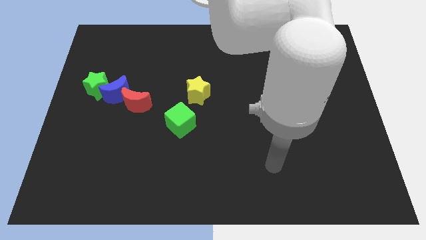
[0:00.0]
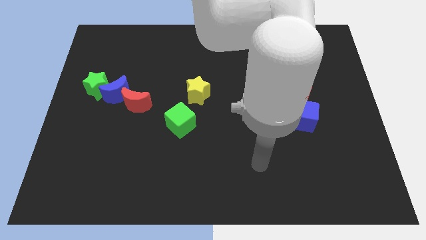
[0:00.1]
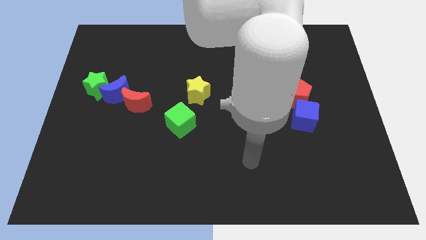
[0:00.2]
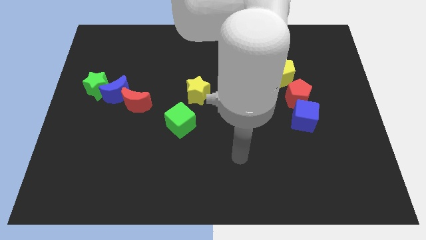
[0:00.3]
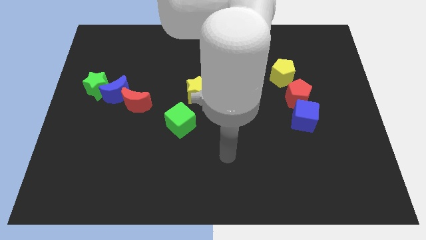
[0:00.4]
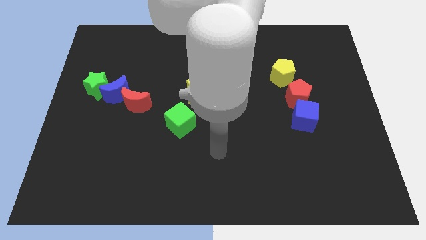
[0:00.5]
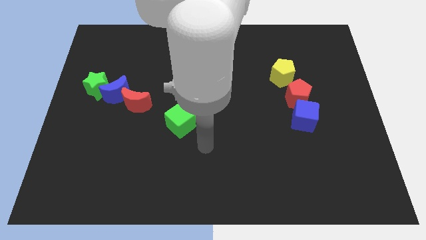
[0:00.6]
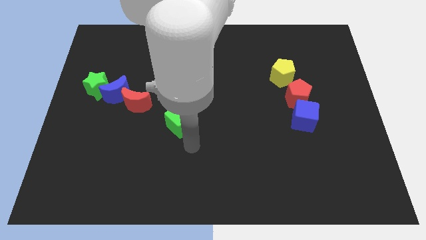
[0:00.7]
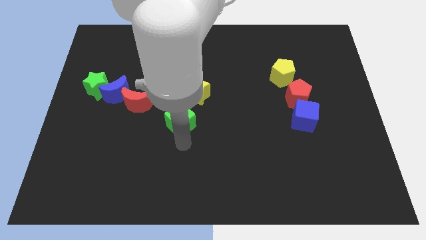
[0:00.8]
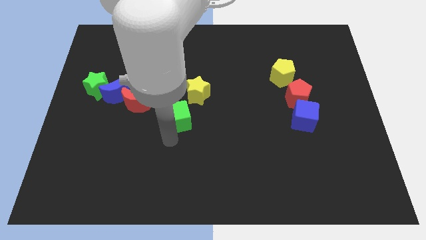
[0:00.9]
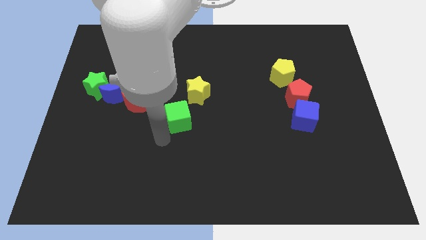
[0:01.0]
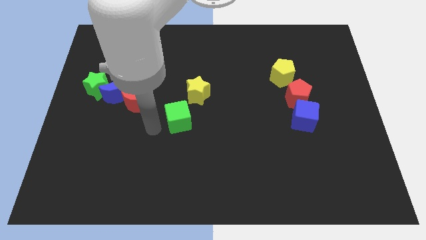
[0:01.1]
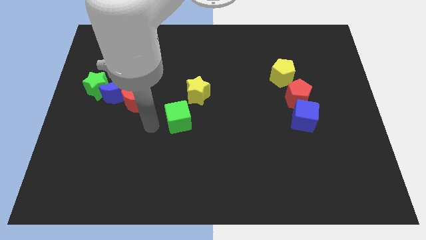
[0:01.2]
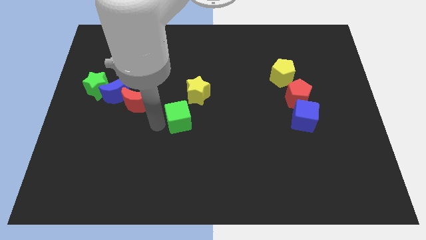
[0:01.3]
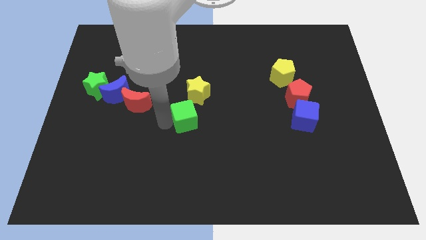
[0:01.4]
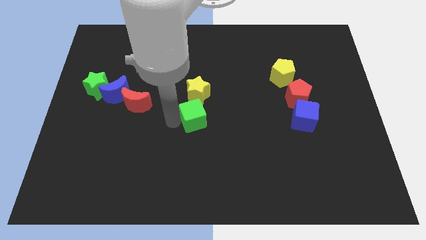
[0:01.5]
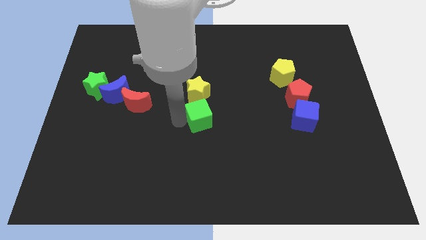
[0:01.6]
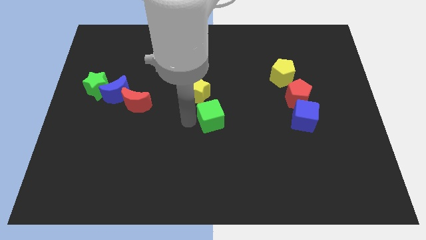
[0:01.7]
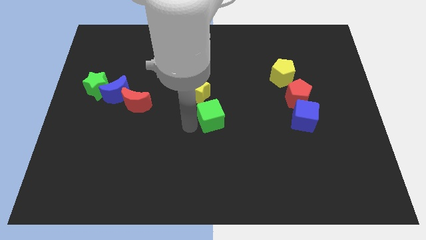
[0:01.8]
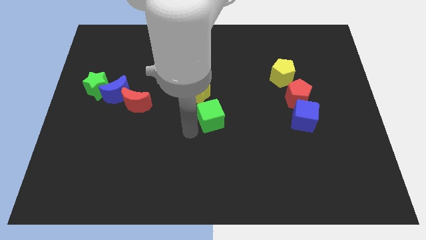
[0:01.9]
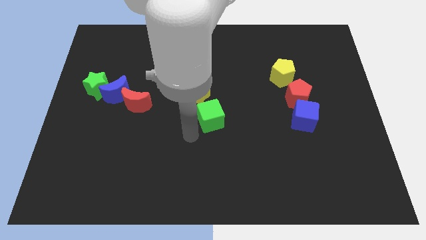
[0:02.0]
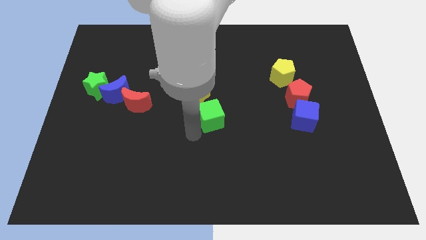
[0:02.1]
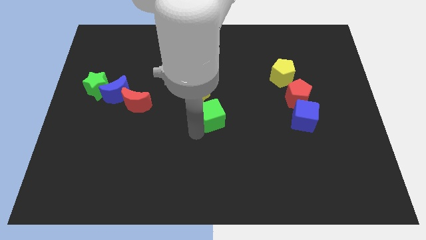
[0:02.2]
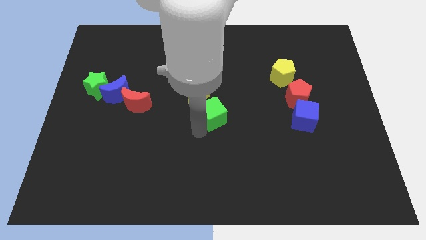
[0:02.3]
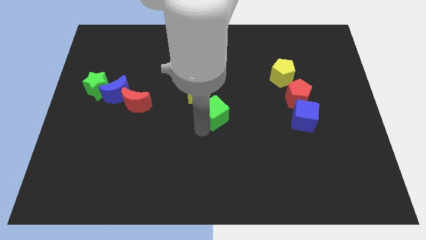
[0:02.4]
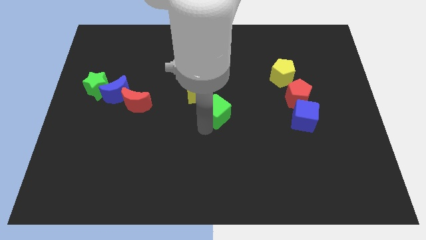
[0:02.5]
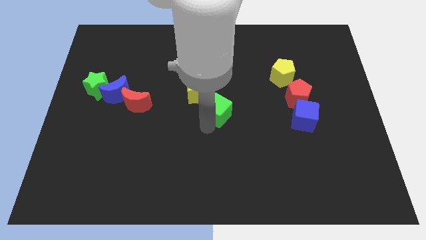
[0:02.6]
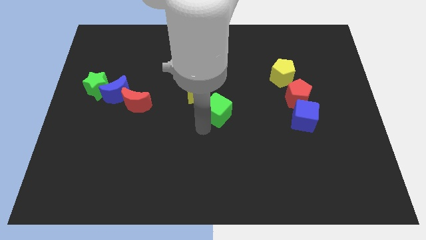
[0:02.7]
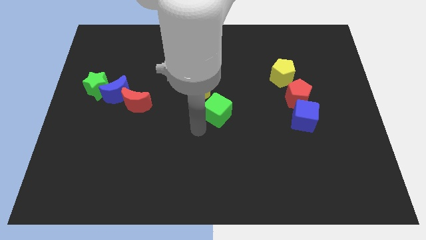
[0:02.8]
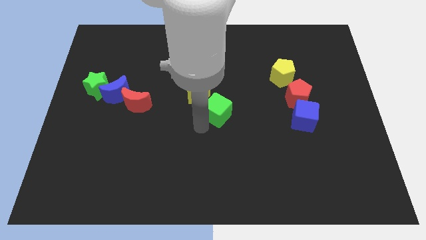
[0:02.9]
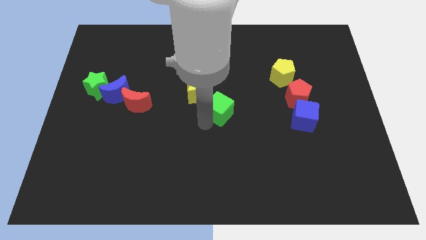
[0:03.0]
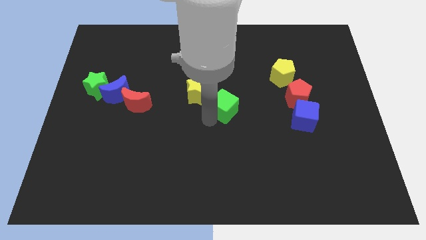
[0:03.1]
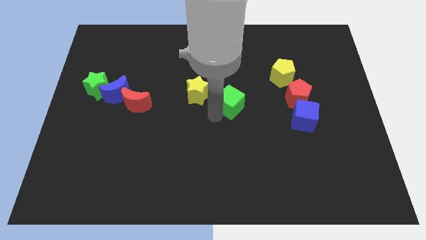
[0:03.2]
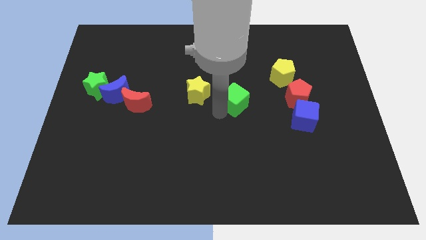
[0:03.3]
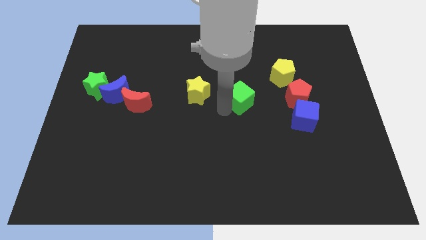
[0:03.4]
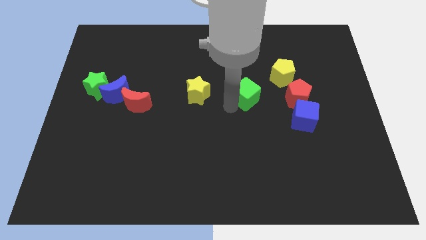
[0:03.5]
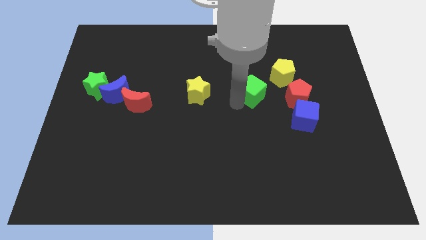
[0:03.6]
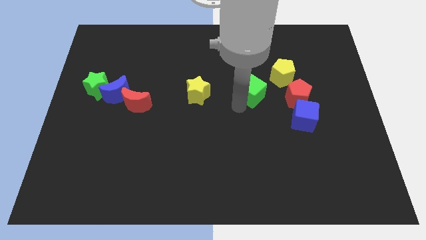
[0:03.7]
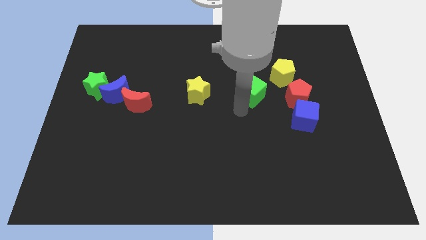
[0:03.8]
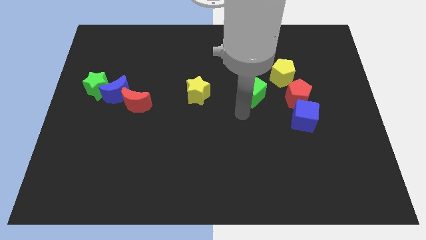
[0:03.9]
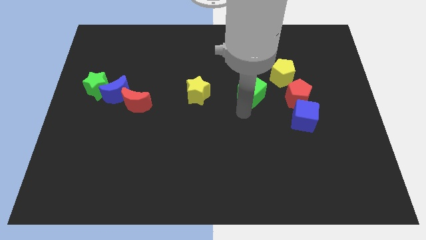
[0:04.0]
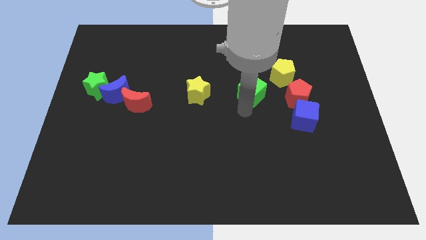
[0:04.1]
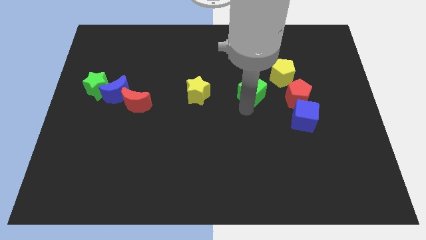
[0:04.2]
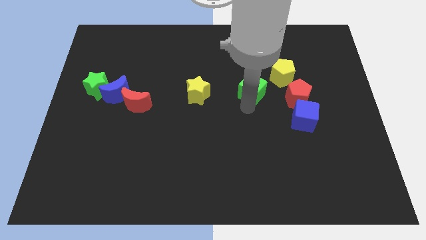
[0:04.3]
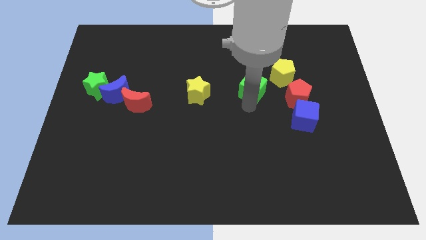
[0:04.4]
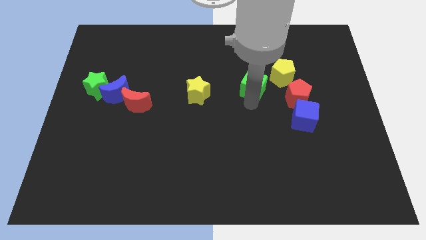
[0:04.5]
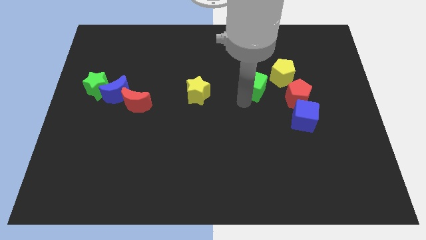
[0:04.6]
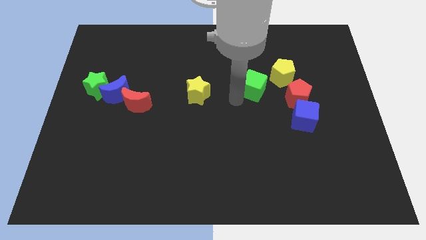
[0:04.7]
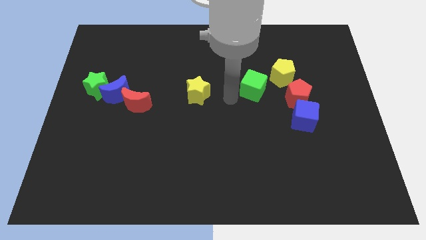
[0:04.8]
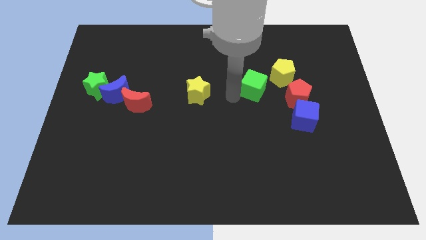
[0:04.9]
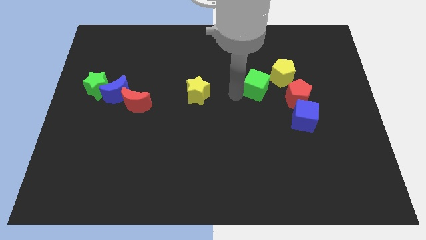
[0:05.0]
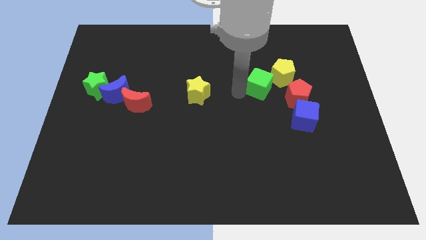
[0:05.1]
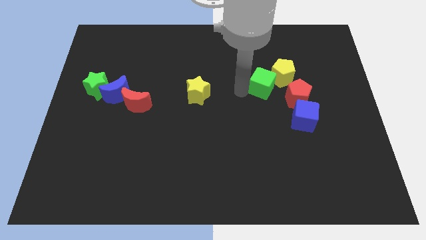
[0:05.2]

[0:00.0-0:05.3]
put the green cube towards the yellow pentagon

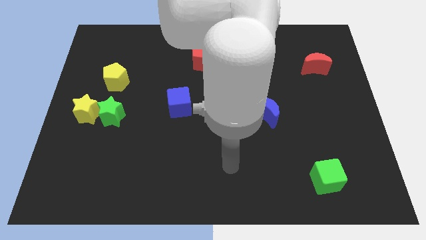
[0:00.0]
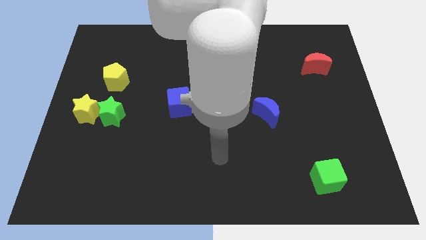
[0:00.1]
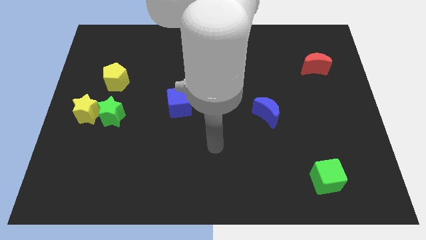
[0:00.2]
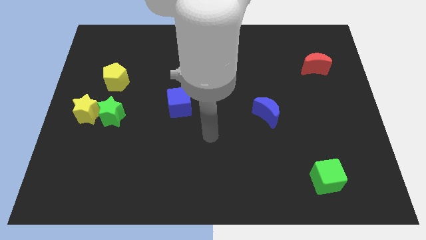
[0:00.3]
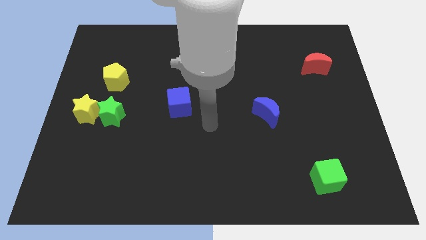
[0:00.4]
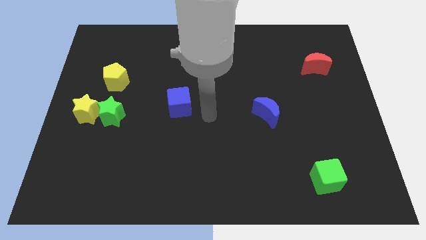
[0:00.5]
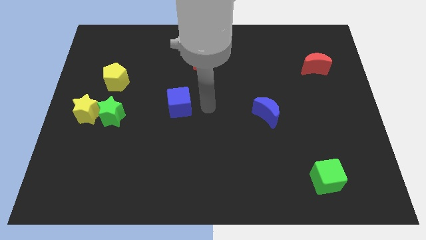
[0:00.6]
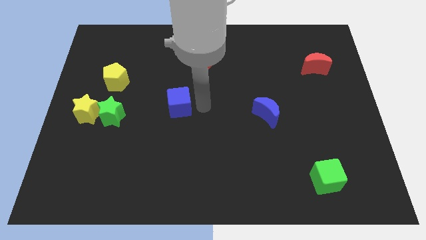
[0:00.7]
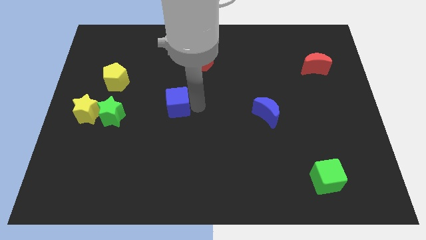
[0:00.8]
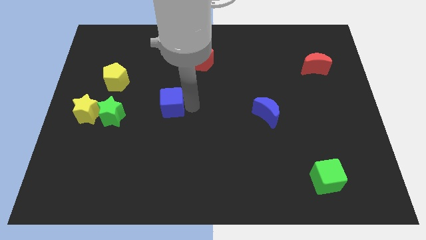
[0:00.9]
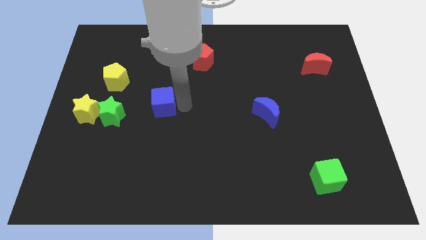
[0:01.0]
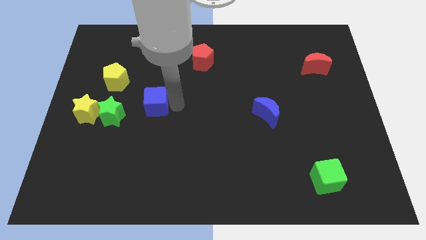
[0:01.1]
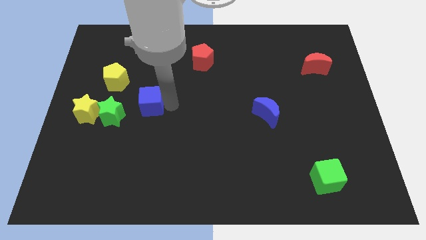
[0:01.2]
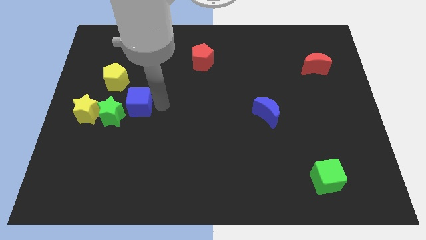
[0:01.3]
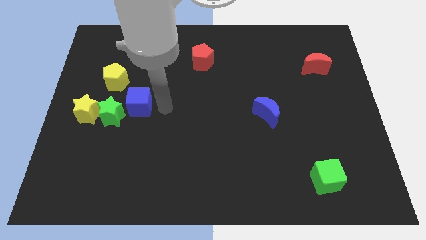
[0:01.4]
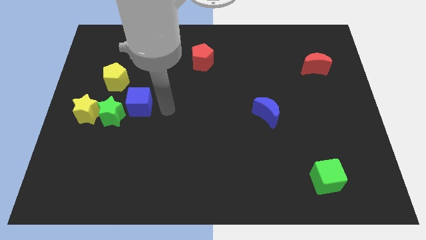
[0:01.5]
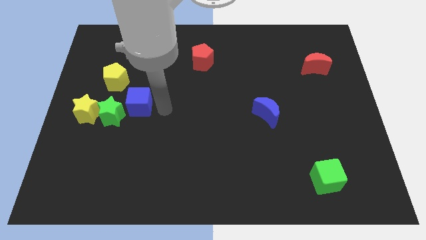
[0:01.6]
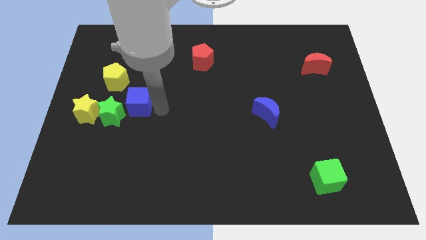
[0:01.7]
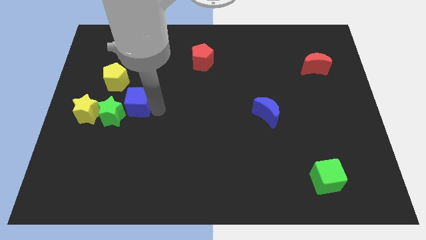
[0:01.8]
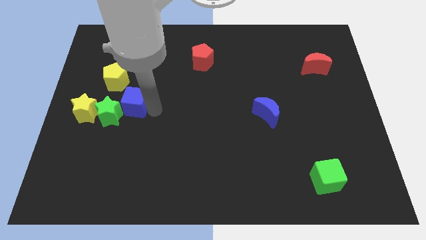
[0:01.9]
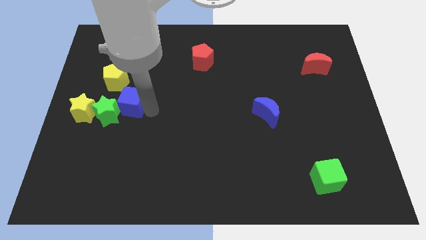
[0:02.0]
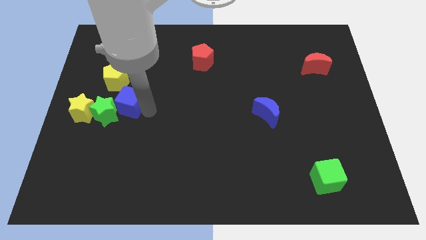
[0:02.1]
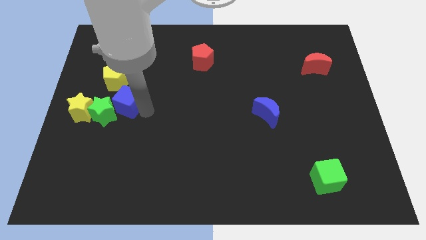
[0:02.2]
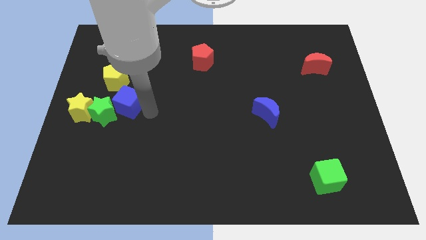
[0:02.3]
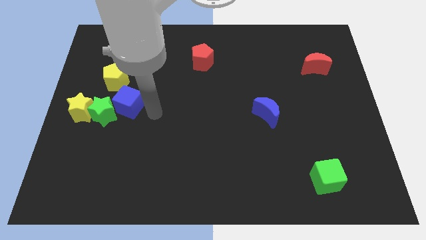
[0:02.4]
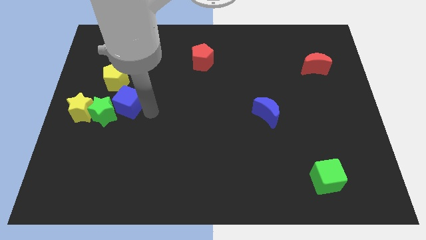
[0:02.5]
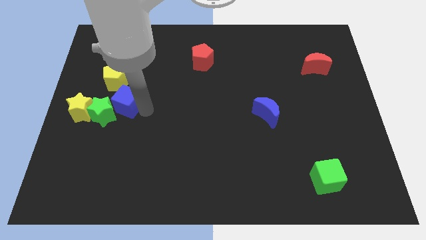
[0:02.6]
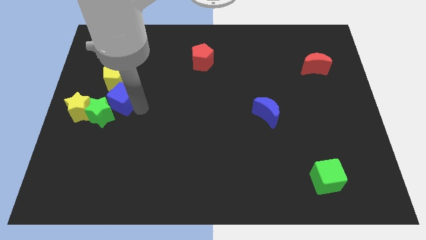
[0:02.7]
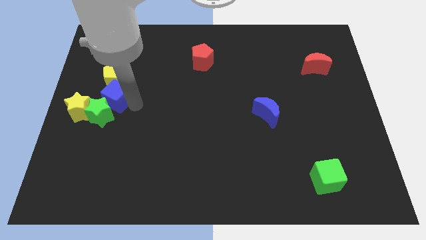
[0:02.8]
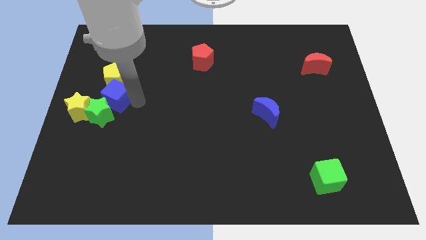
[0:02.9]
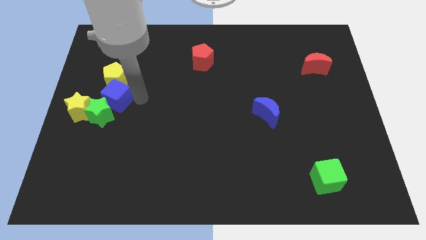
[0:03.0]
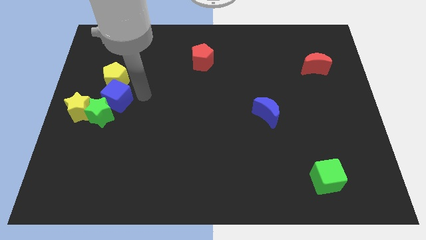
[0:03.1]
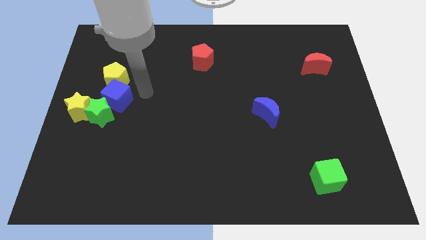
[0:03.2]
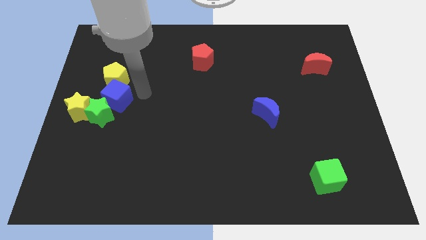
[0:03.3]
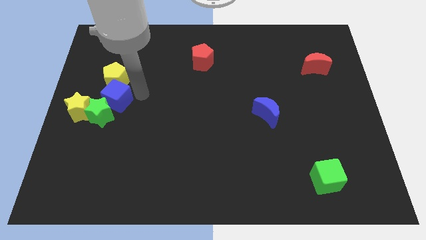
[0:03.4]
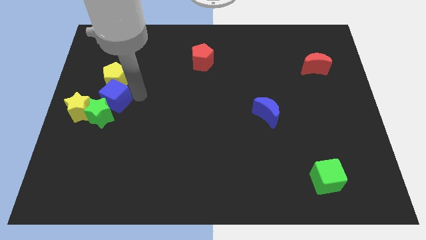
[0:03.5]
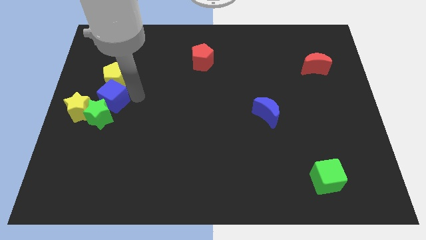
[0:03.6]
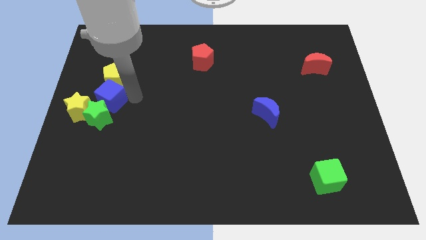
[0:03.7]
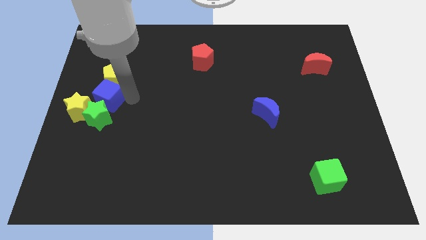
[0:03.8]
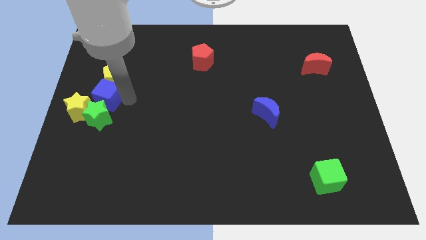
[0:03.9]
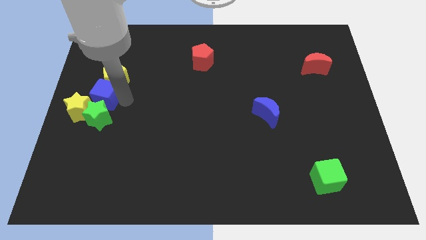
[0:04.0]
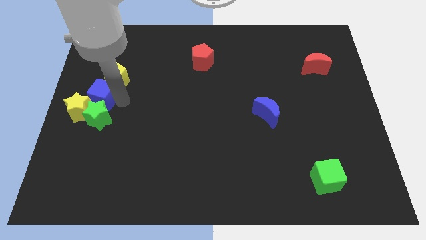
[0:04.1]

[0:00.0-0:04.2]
move the blue cube towards the yellow star
